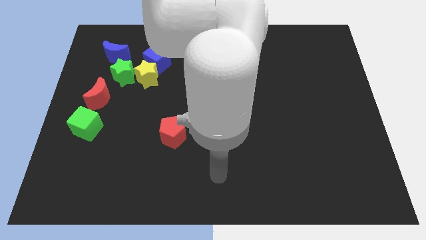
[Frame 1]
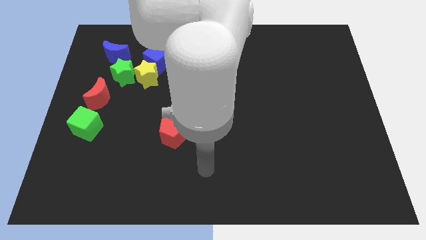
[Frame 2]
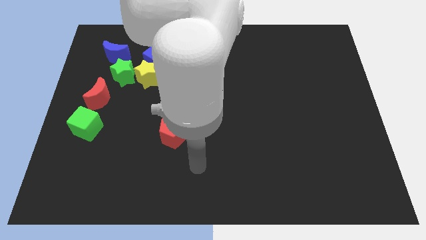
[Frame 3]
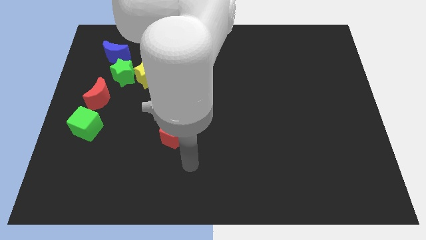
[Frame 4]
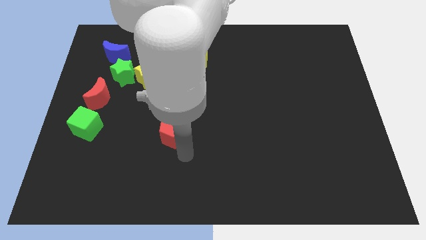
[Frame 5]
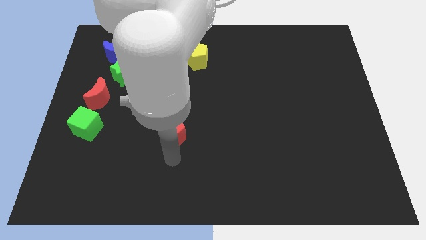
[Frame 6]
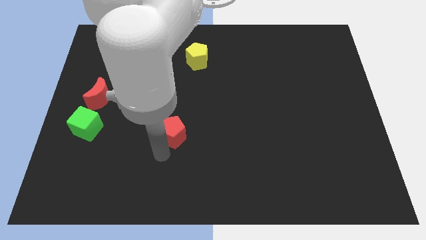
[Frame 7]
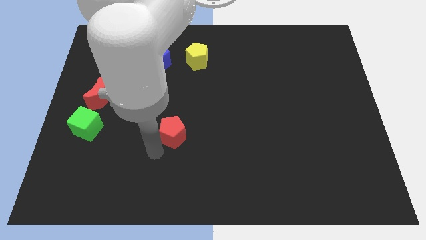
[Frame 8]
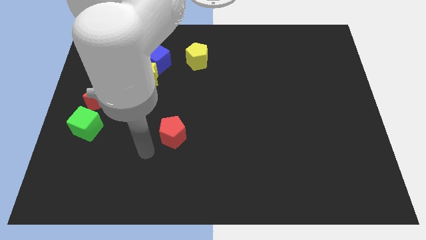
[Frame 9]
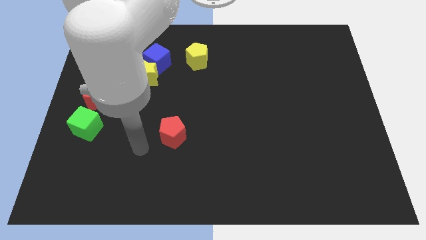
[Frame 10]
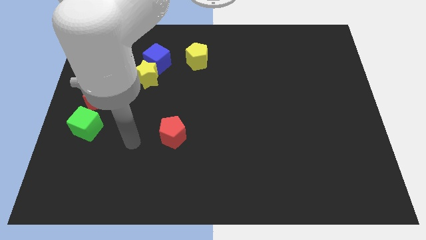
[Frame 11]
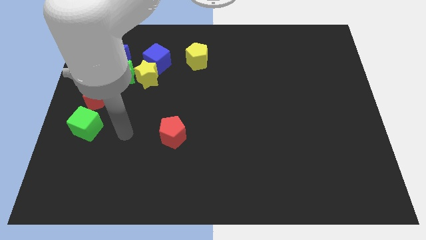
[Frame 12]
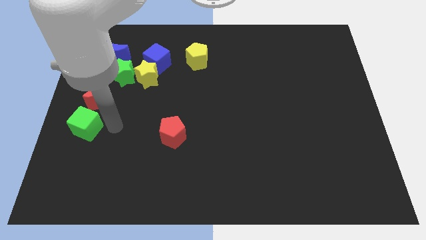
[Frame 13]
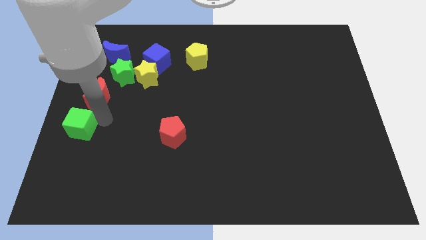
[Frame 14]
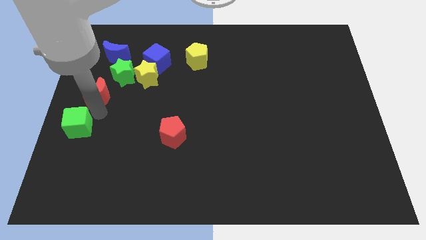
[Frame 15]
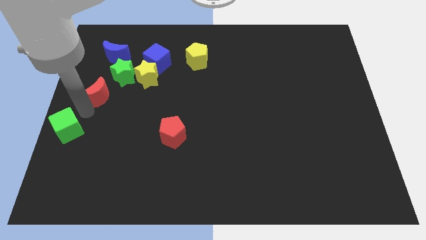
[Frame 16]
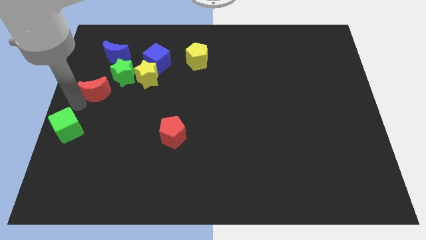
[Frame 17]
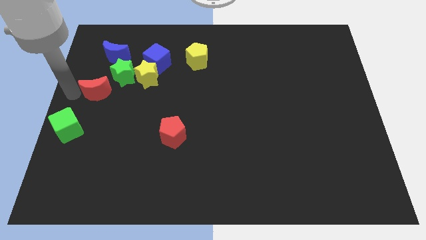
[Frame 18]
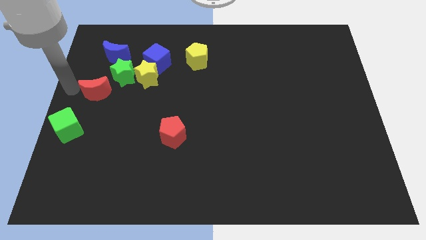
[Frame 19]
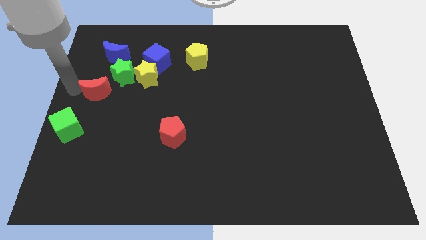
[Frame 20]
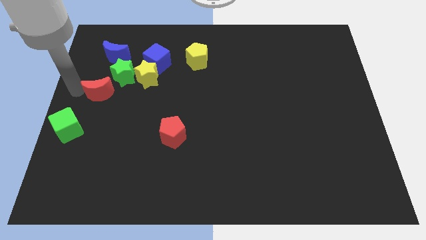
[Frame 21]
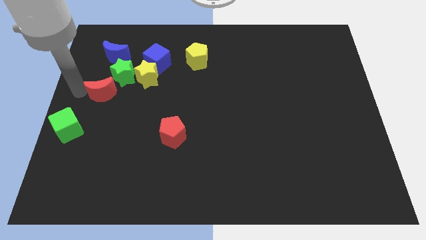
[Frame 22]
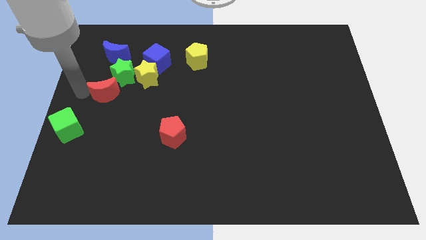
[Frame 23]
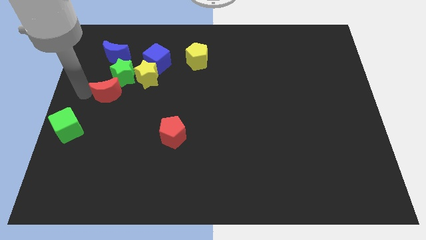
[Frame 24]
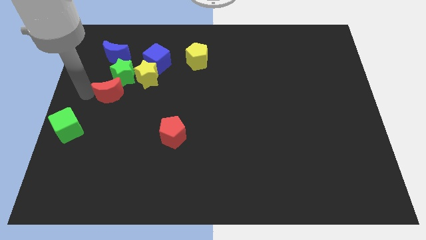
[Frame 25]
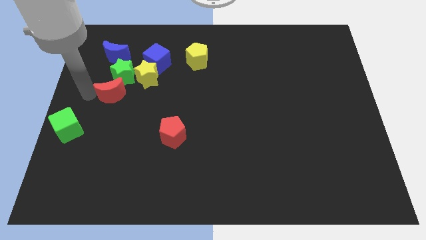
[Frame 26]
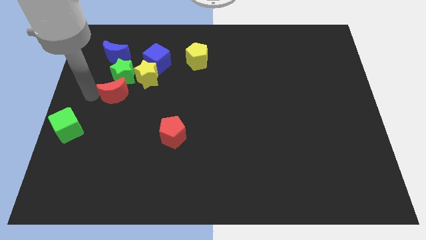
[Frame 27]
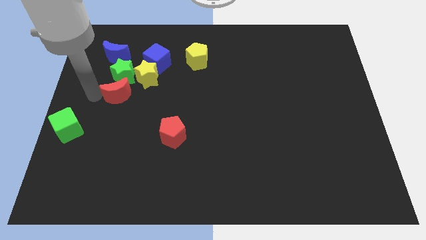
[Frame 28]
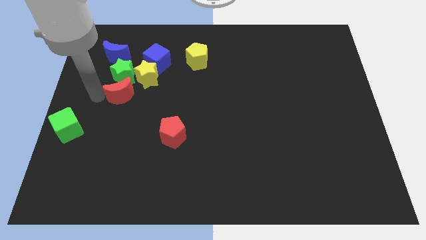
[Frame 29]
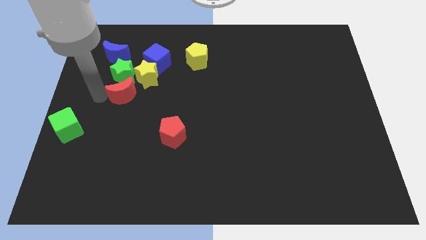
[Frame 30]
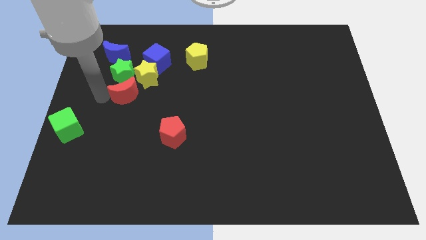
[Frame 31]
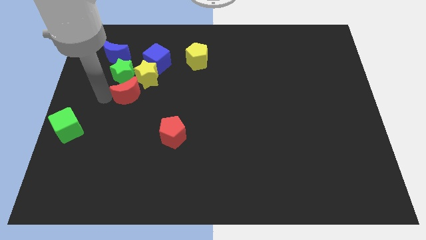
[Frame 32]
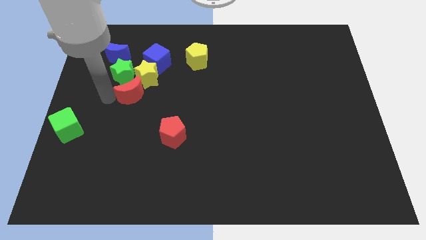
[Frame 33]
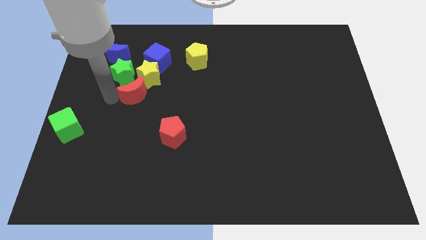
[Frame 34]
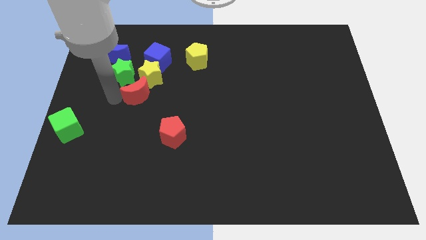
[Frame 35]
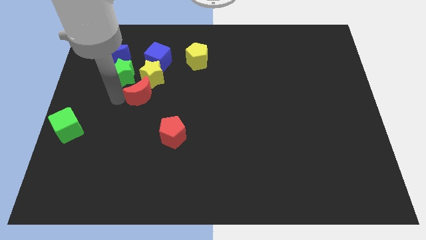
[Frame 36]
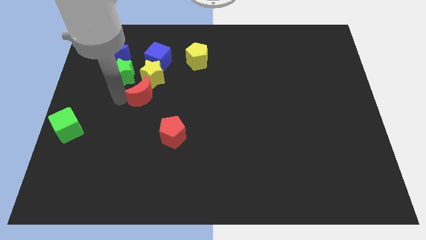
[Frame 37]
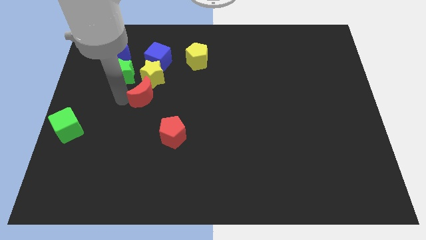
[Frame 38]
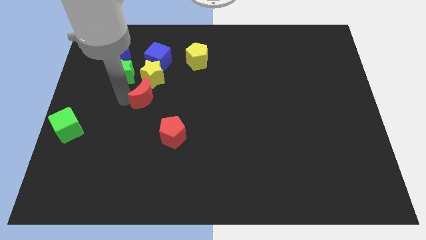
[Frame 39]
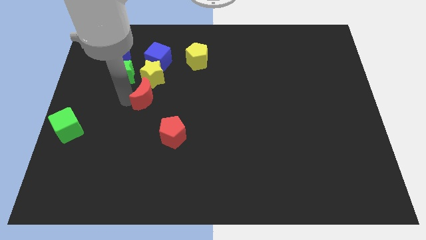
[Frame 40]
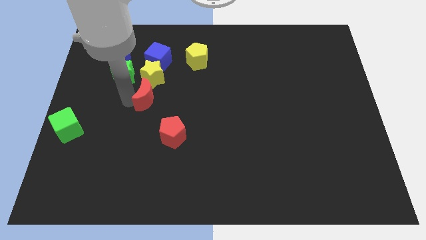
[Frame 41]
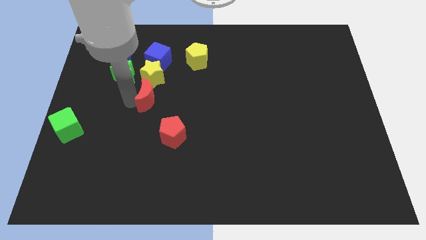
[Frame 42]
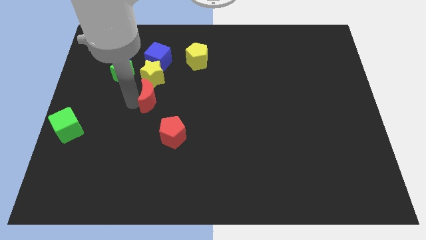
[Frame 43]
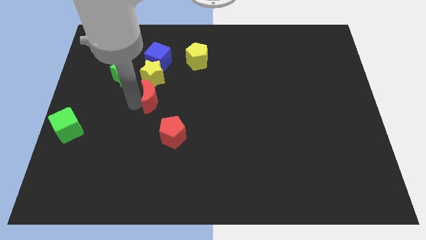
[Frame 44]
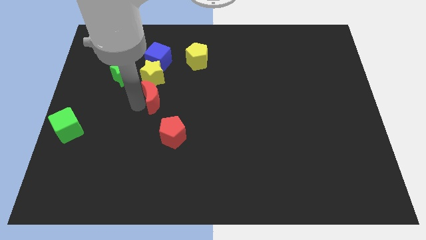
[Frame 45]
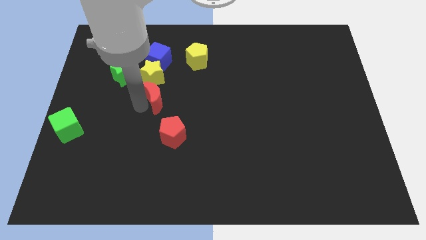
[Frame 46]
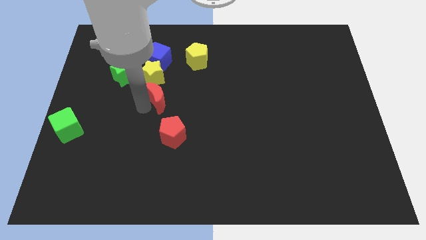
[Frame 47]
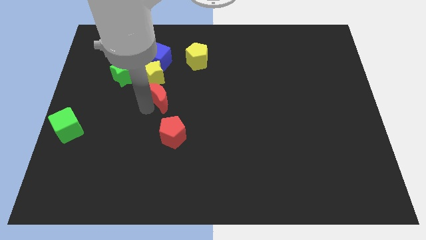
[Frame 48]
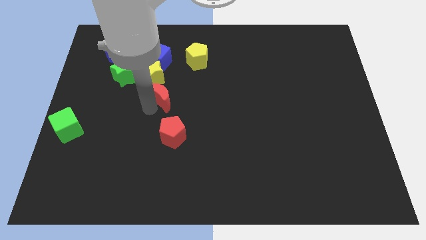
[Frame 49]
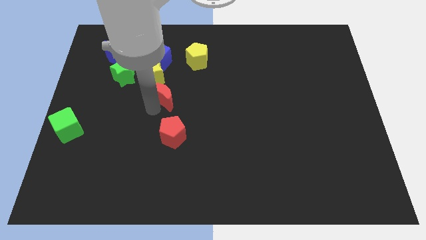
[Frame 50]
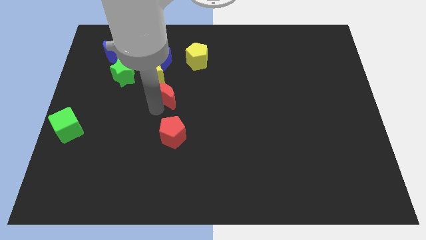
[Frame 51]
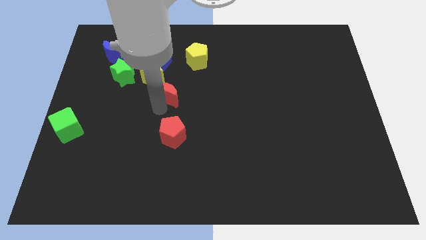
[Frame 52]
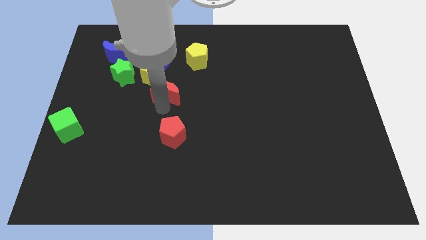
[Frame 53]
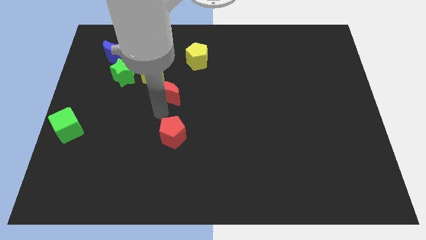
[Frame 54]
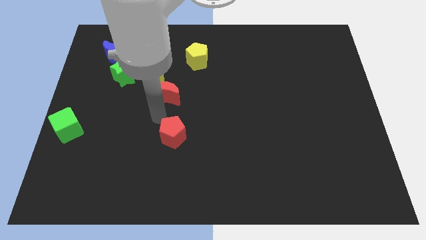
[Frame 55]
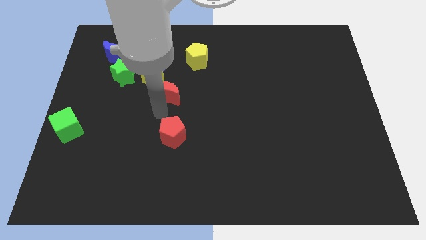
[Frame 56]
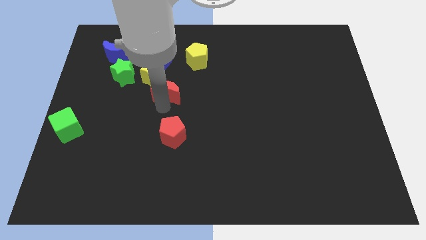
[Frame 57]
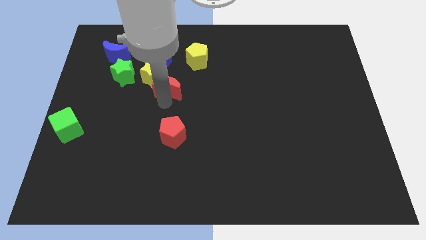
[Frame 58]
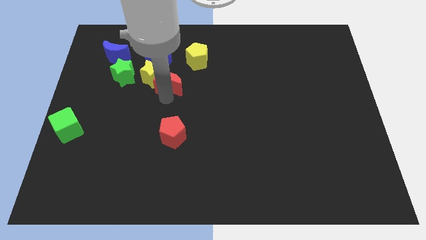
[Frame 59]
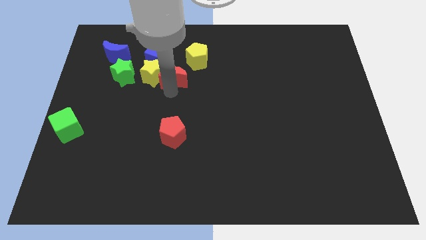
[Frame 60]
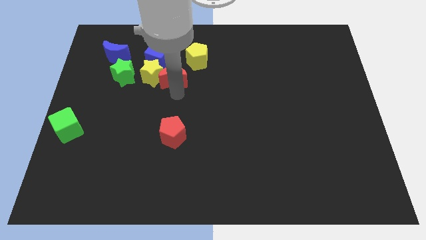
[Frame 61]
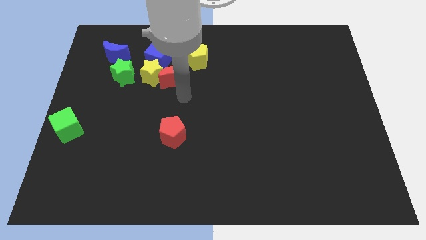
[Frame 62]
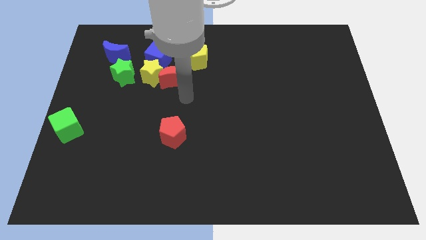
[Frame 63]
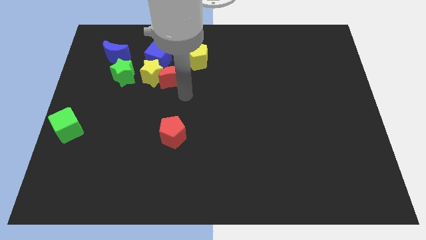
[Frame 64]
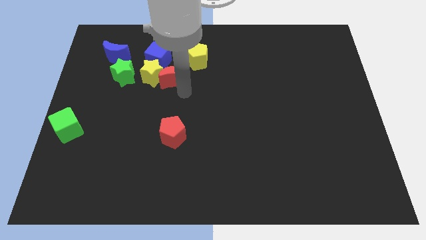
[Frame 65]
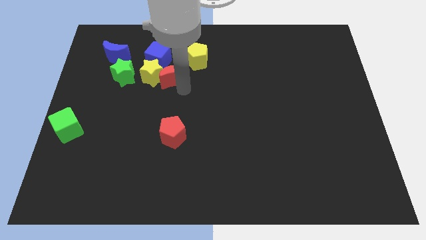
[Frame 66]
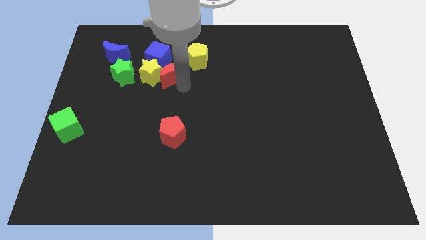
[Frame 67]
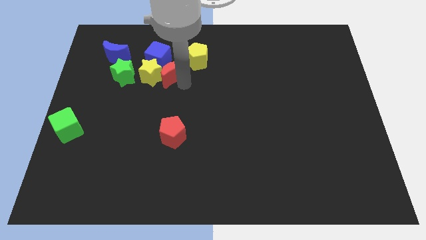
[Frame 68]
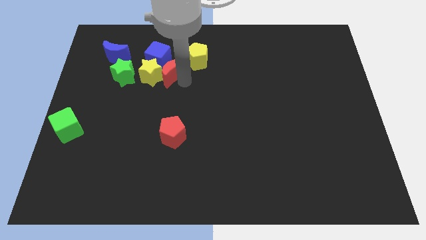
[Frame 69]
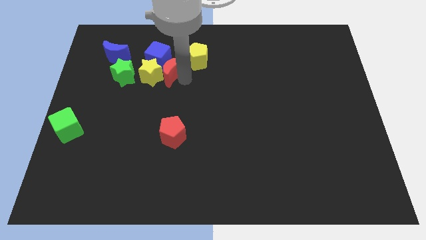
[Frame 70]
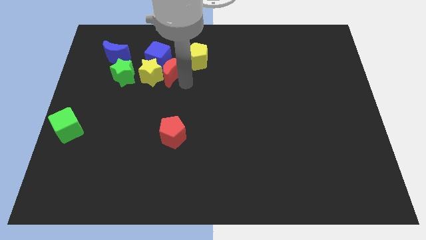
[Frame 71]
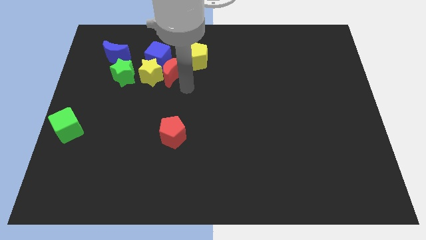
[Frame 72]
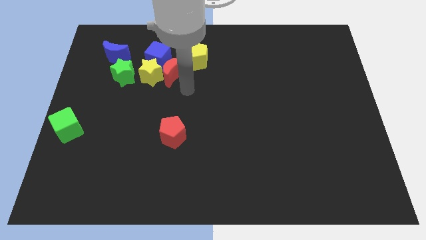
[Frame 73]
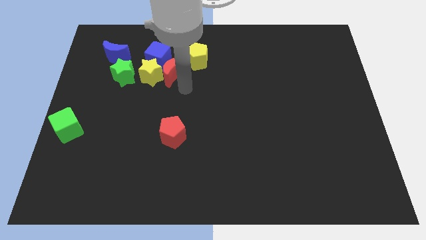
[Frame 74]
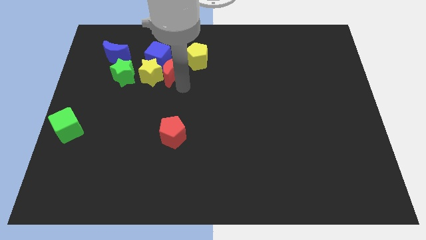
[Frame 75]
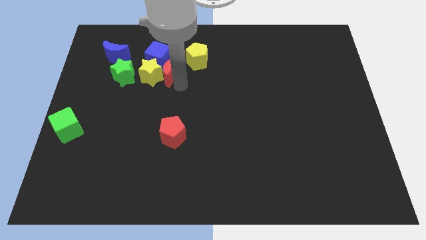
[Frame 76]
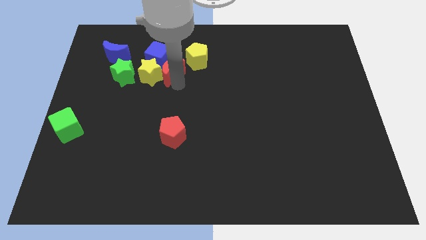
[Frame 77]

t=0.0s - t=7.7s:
slide the red moon towards the blue cube
